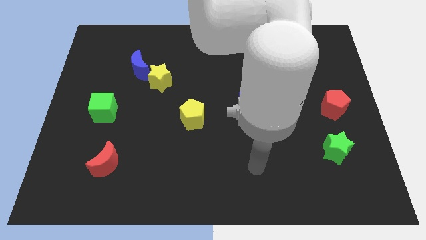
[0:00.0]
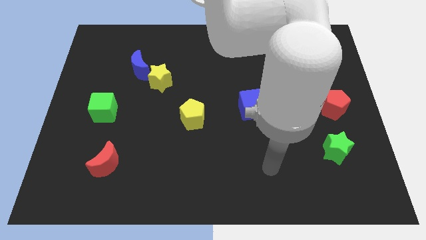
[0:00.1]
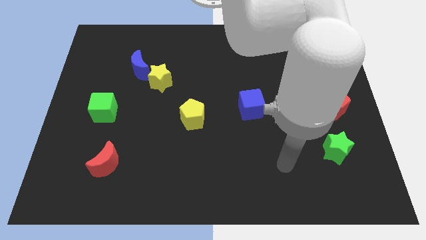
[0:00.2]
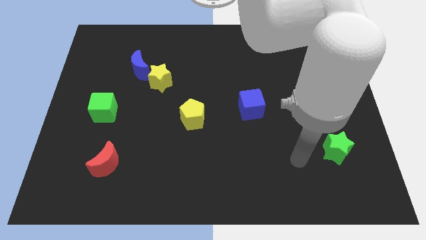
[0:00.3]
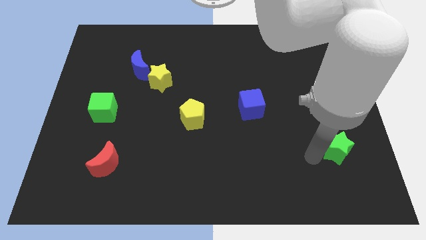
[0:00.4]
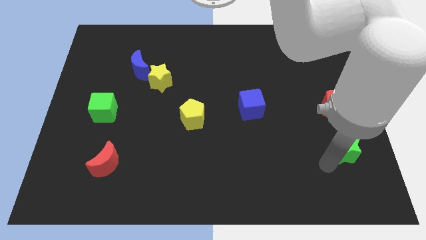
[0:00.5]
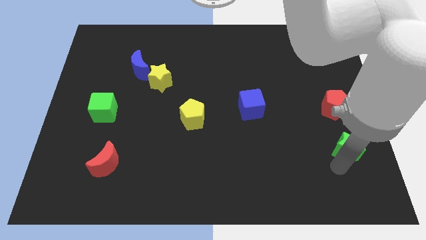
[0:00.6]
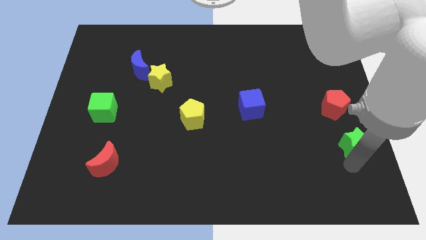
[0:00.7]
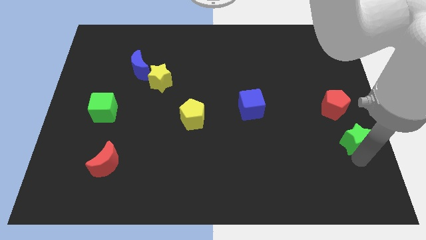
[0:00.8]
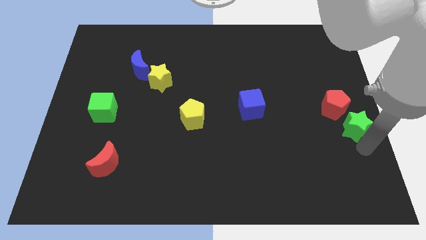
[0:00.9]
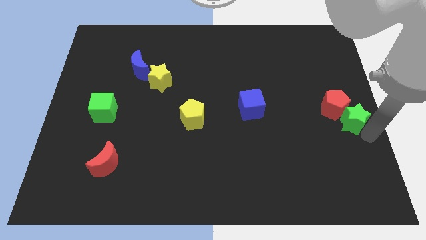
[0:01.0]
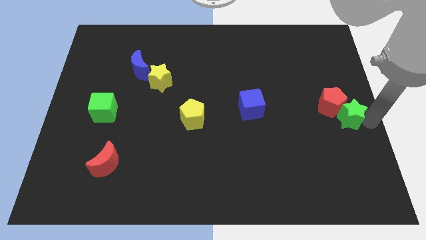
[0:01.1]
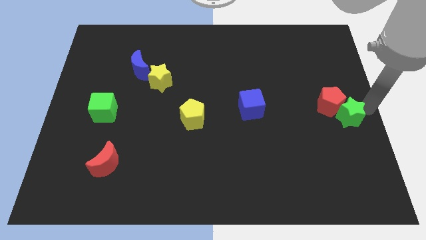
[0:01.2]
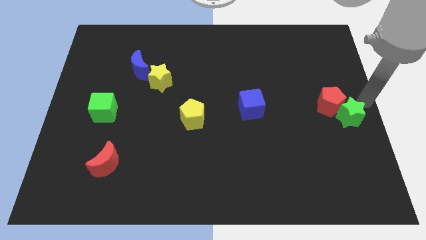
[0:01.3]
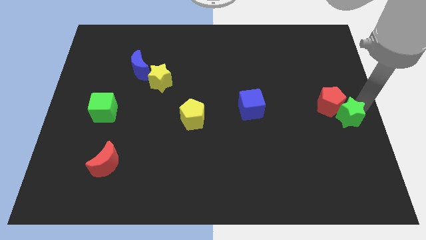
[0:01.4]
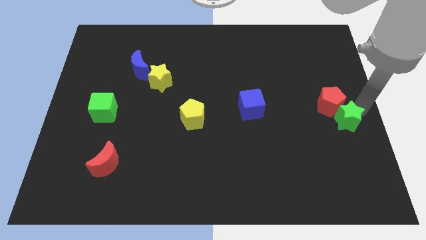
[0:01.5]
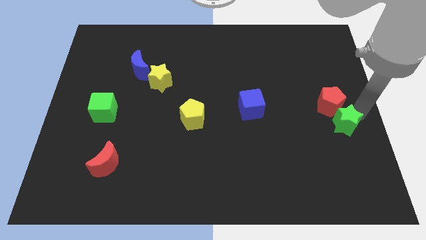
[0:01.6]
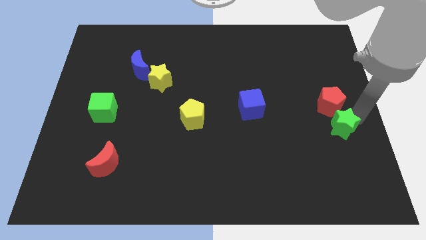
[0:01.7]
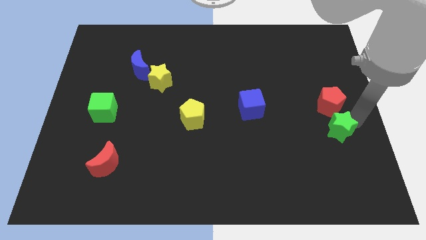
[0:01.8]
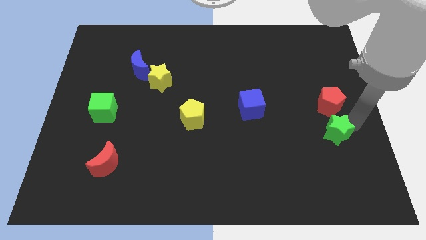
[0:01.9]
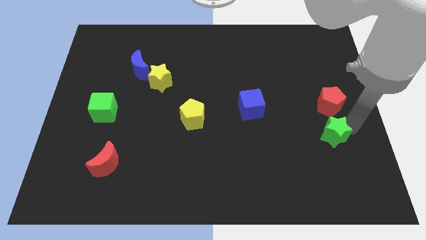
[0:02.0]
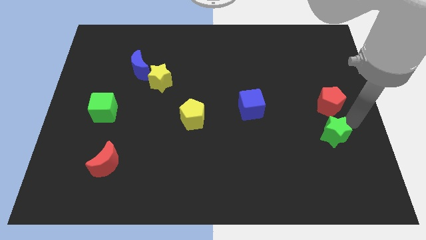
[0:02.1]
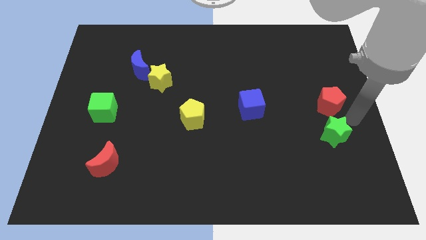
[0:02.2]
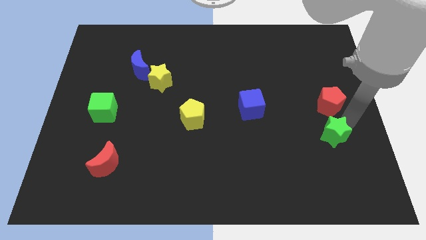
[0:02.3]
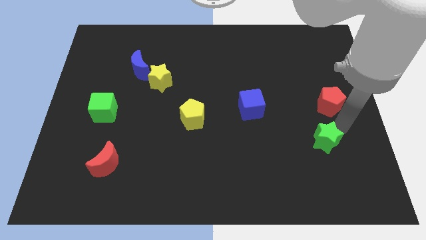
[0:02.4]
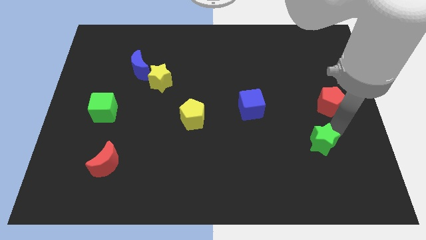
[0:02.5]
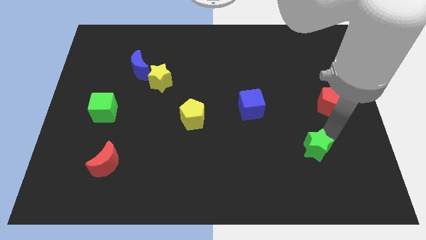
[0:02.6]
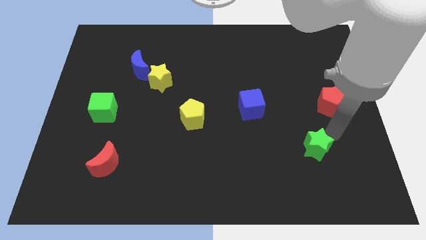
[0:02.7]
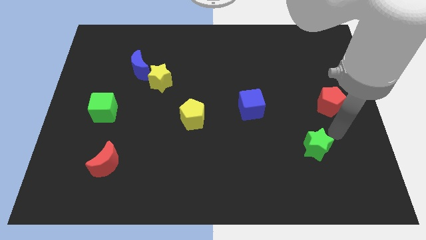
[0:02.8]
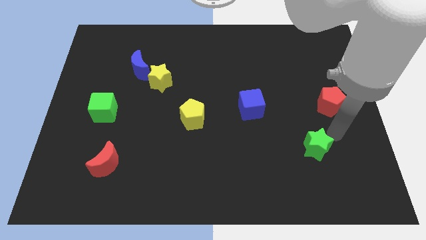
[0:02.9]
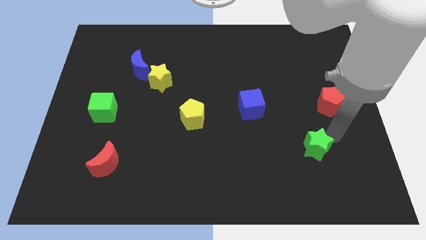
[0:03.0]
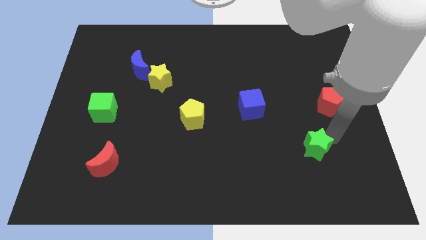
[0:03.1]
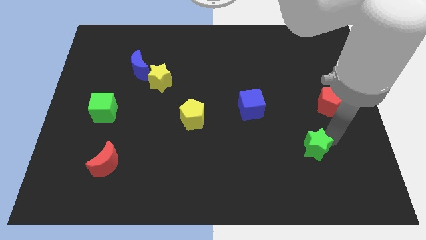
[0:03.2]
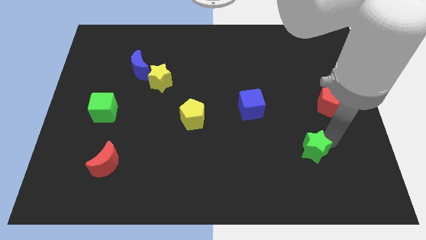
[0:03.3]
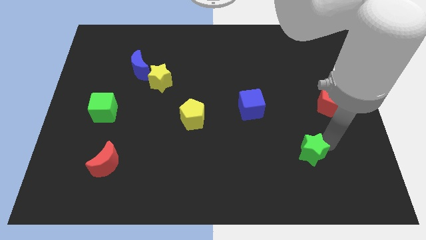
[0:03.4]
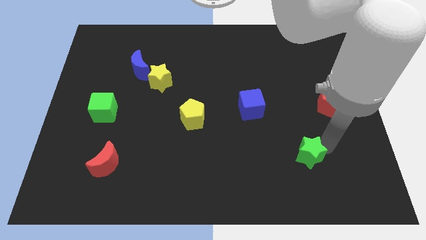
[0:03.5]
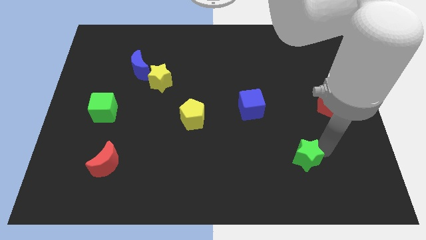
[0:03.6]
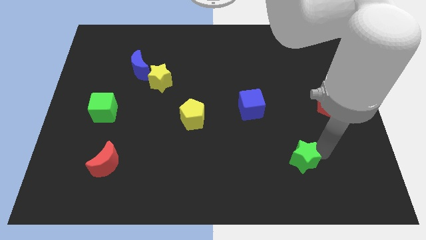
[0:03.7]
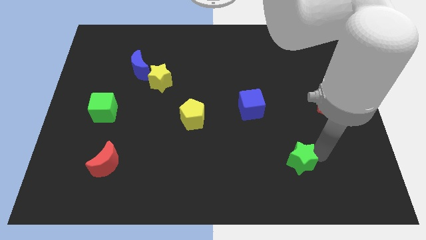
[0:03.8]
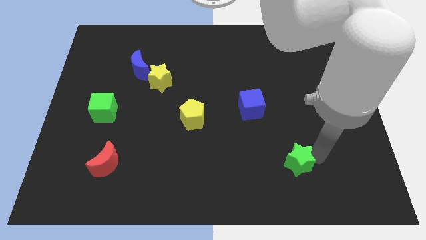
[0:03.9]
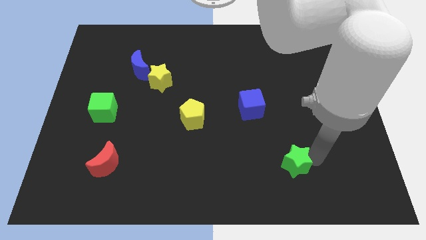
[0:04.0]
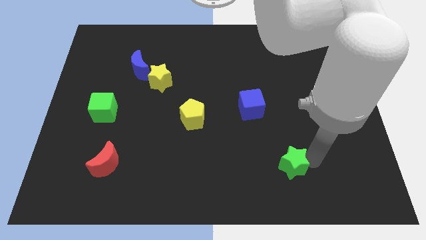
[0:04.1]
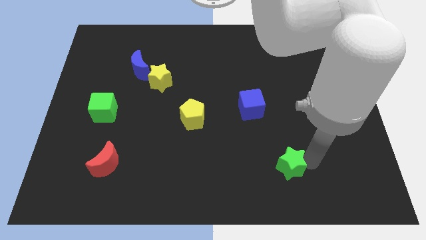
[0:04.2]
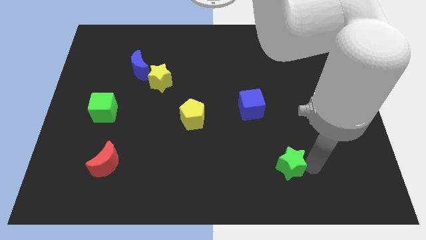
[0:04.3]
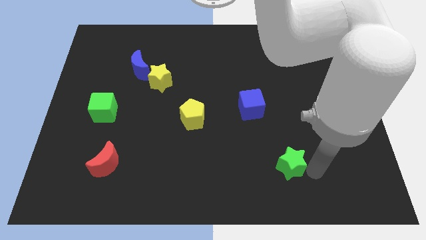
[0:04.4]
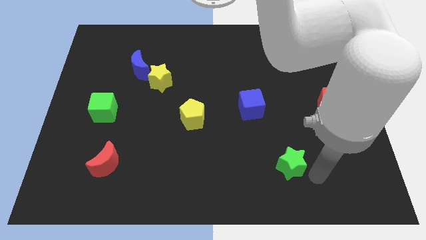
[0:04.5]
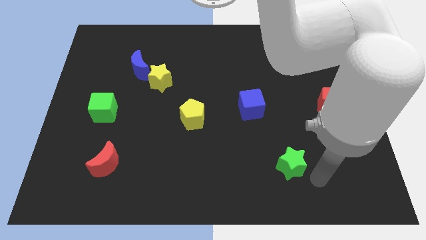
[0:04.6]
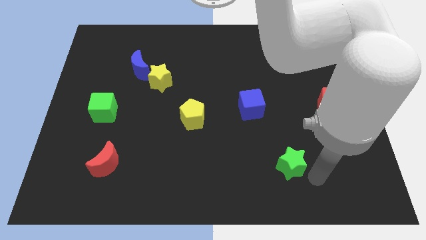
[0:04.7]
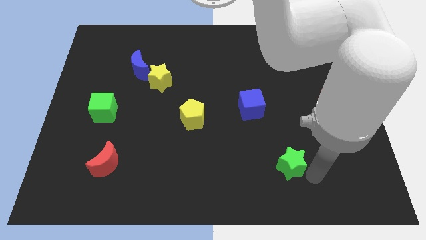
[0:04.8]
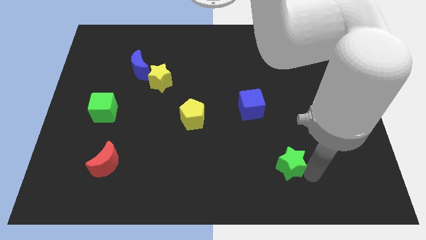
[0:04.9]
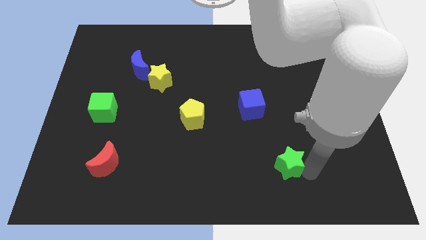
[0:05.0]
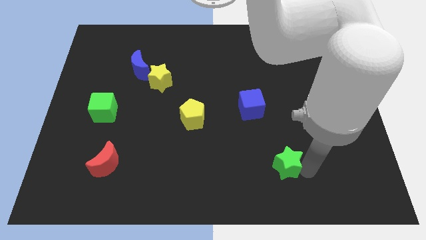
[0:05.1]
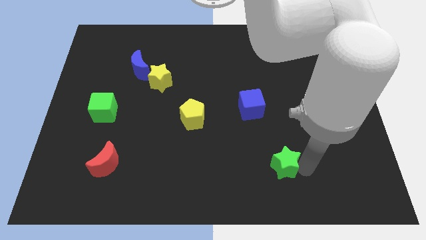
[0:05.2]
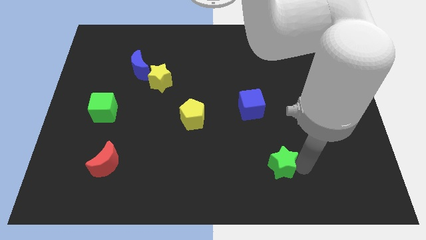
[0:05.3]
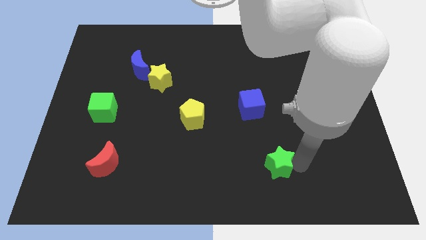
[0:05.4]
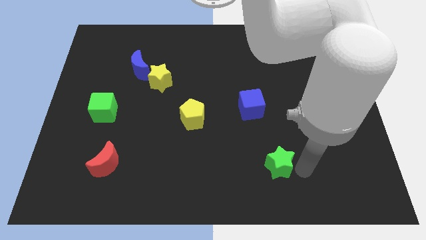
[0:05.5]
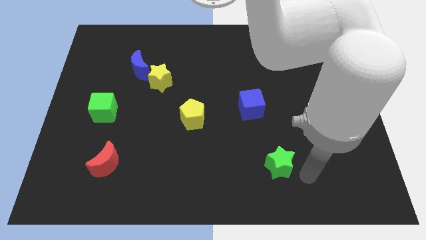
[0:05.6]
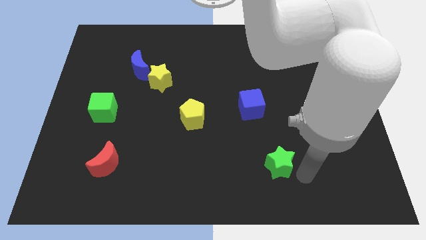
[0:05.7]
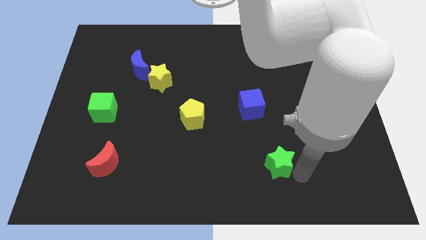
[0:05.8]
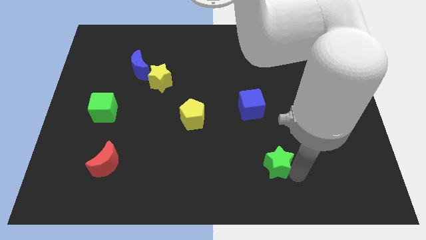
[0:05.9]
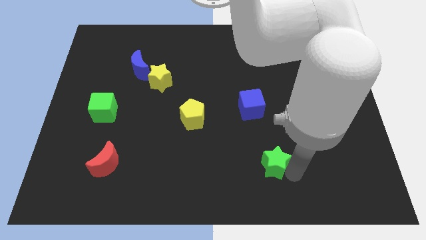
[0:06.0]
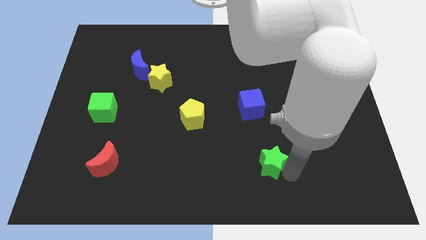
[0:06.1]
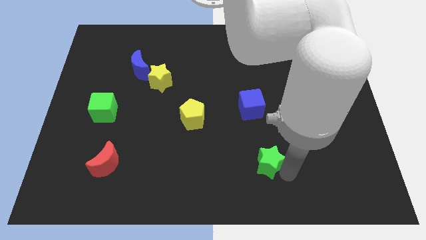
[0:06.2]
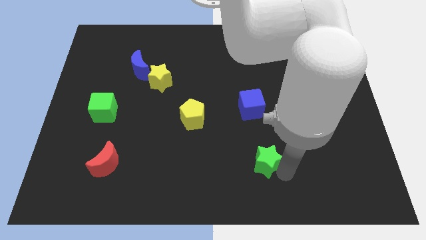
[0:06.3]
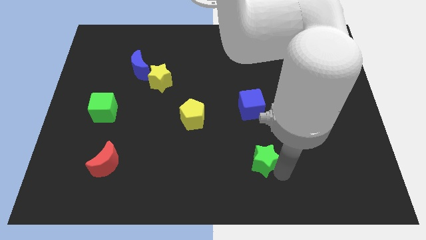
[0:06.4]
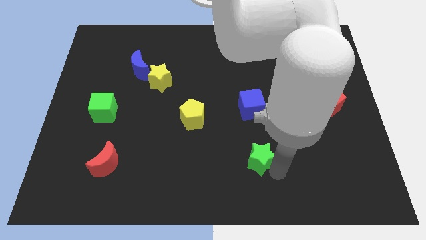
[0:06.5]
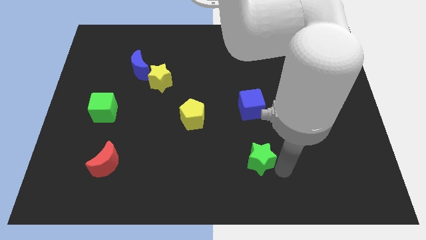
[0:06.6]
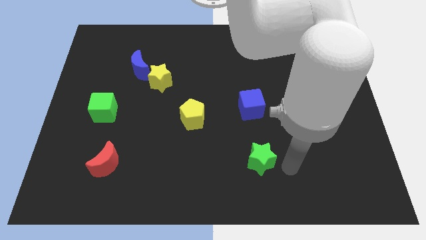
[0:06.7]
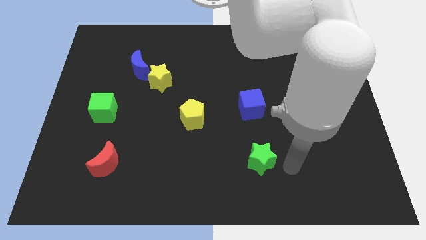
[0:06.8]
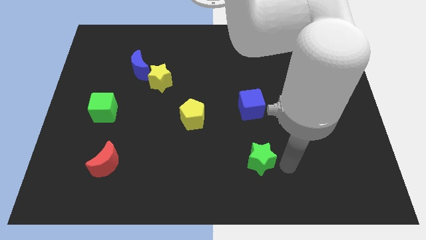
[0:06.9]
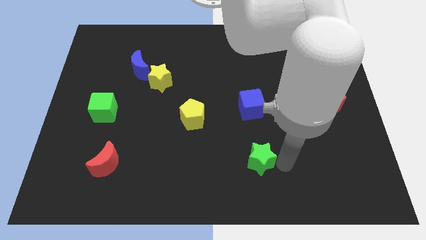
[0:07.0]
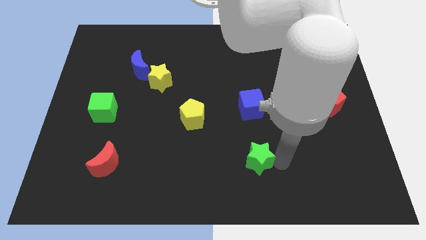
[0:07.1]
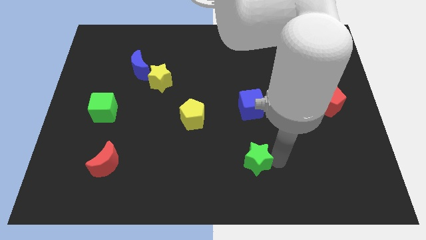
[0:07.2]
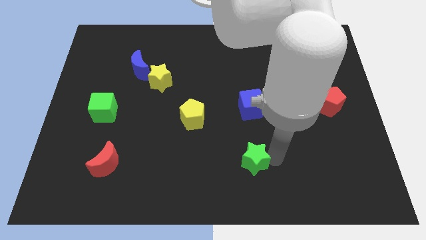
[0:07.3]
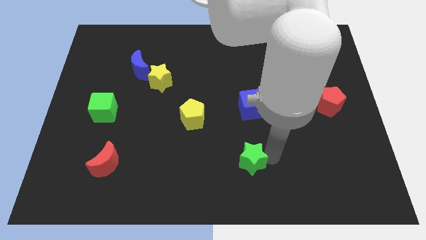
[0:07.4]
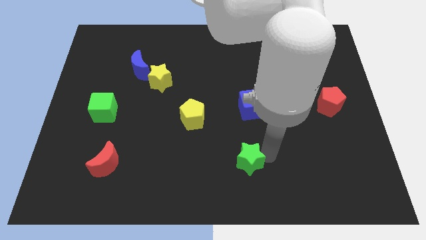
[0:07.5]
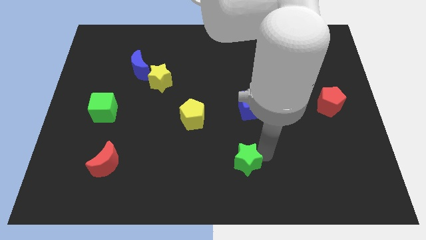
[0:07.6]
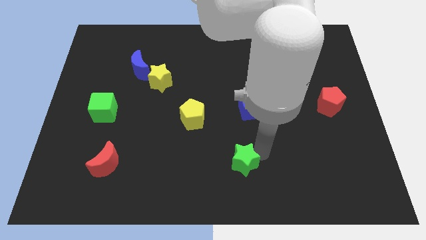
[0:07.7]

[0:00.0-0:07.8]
push the green star left
